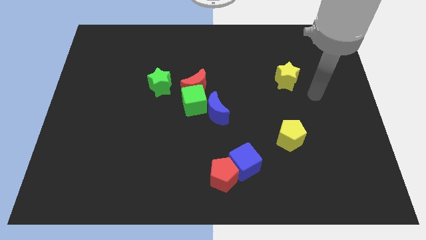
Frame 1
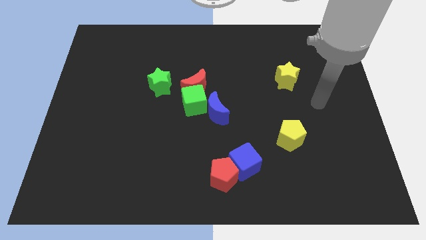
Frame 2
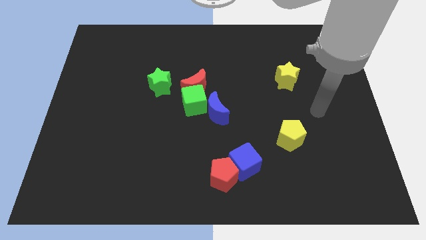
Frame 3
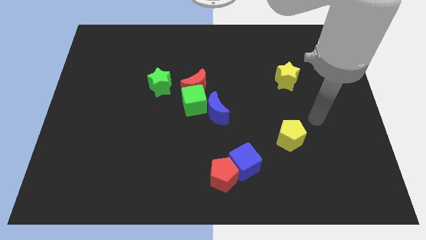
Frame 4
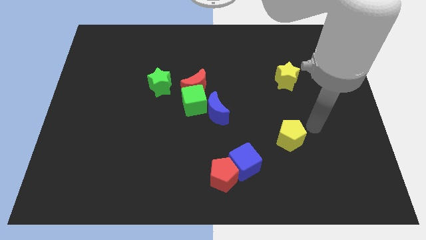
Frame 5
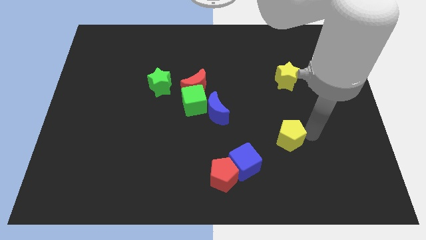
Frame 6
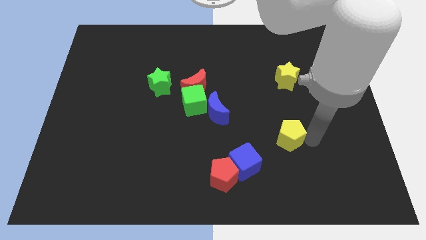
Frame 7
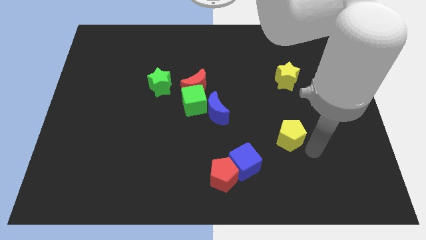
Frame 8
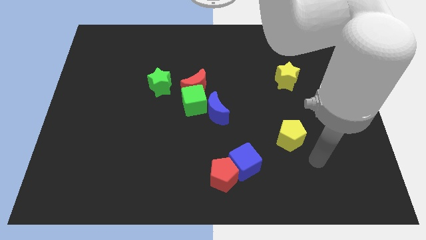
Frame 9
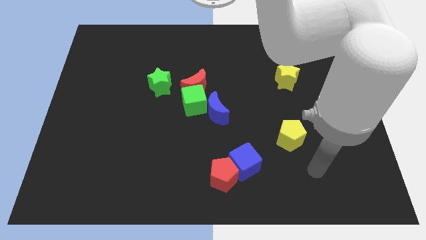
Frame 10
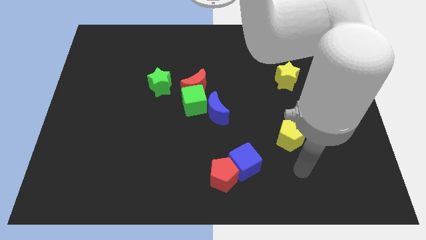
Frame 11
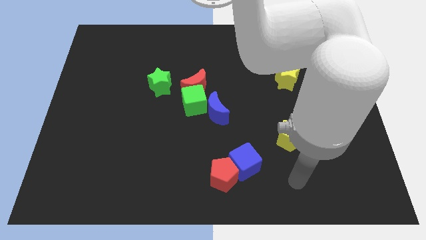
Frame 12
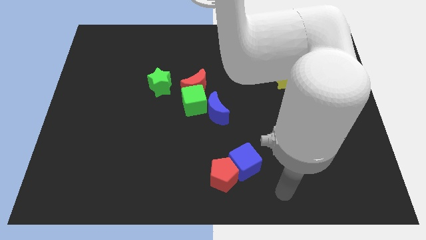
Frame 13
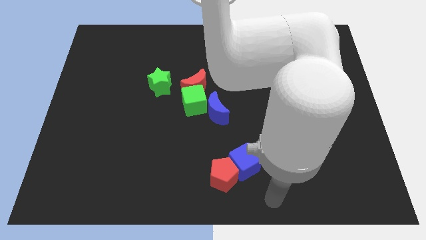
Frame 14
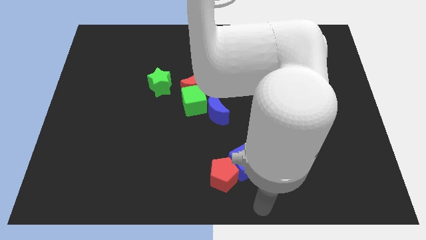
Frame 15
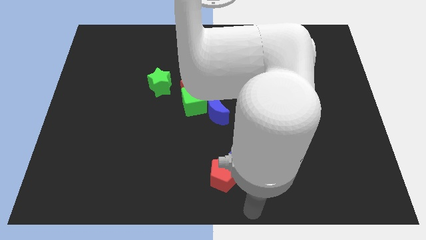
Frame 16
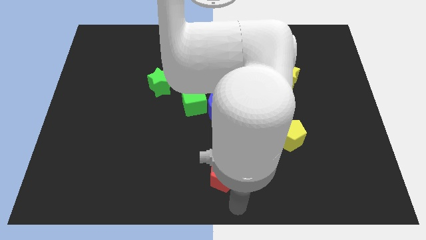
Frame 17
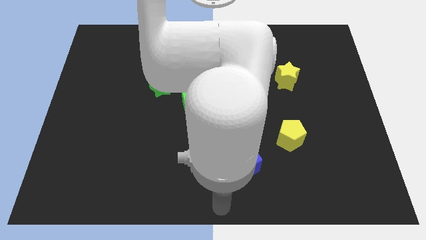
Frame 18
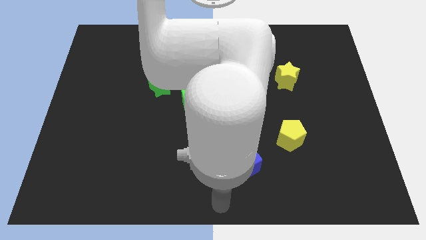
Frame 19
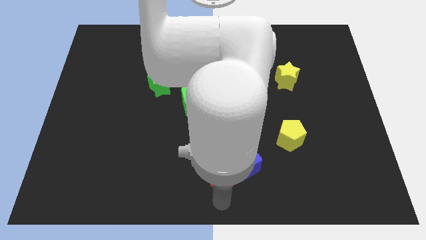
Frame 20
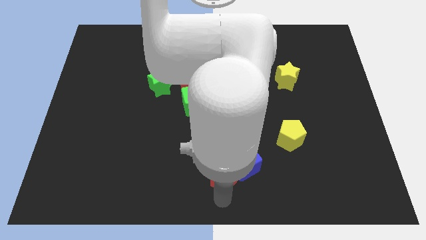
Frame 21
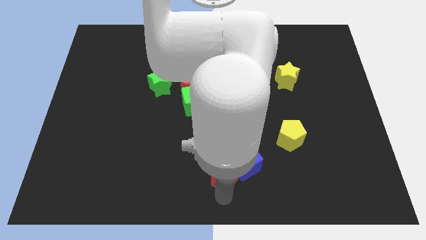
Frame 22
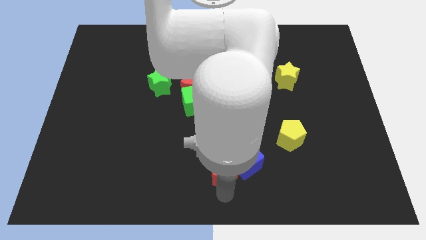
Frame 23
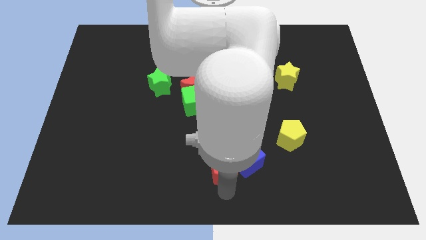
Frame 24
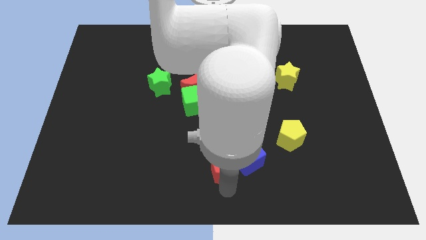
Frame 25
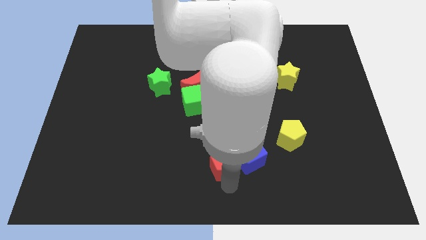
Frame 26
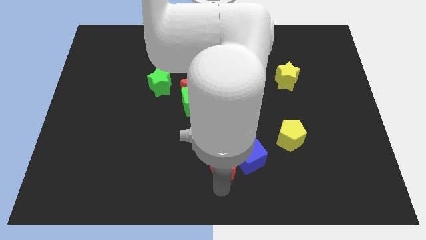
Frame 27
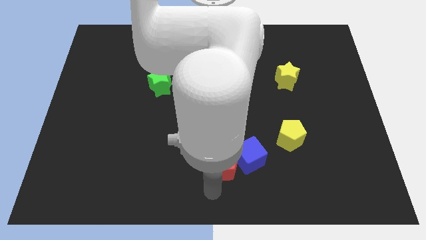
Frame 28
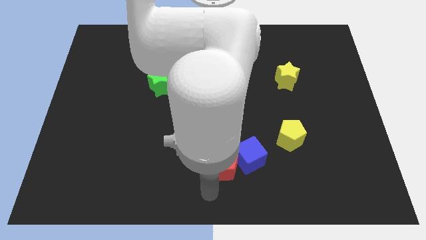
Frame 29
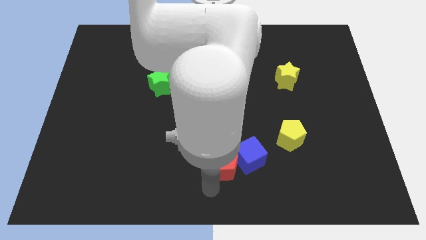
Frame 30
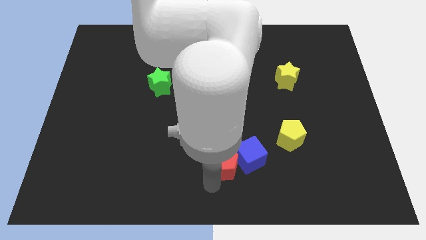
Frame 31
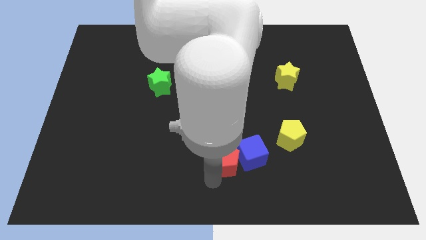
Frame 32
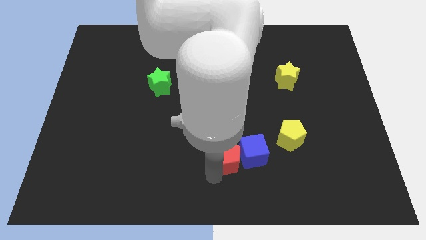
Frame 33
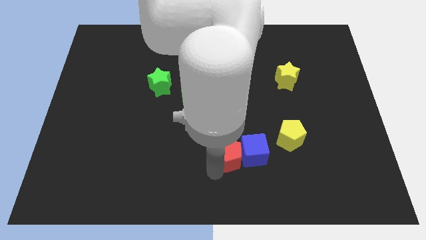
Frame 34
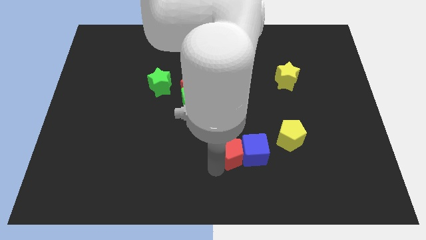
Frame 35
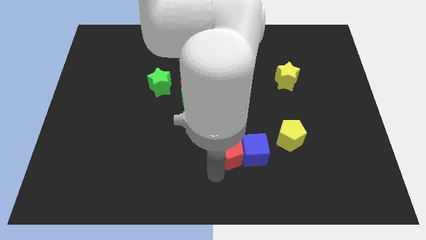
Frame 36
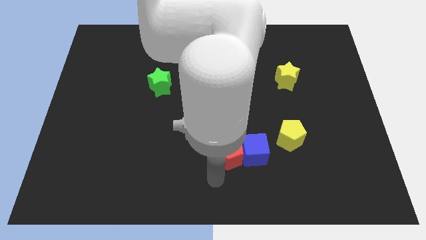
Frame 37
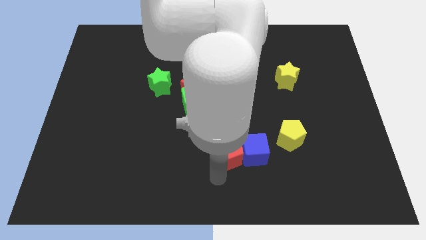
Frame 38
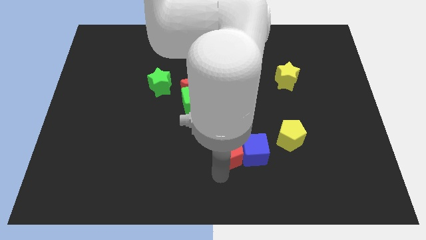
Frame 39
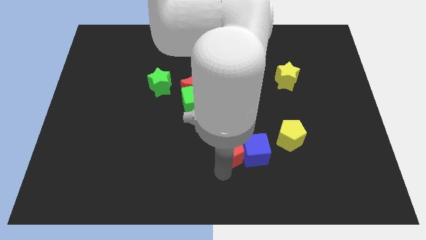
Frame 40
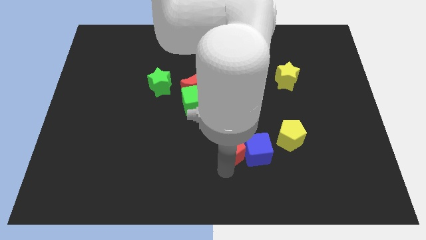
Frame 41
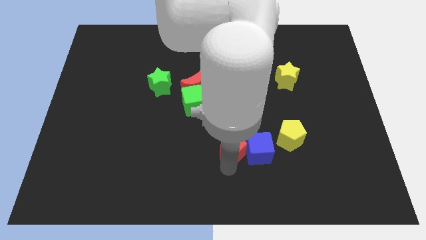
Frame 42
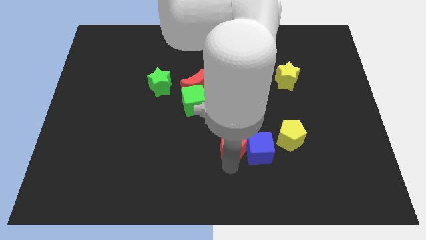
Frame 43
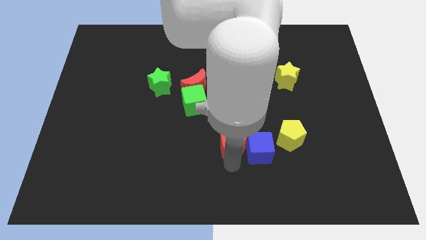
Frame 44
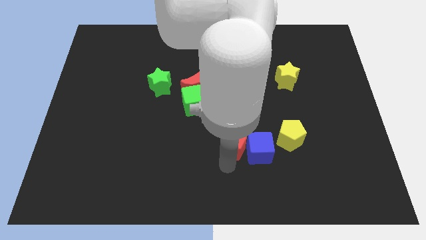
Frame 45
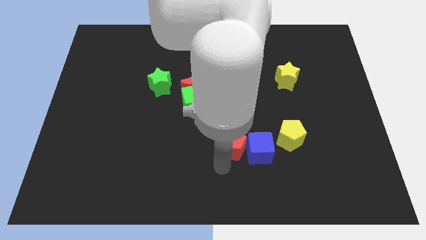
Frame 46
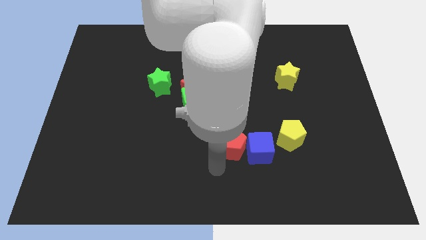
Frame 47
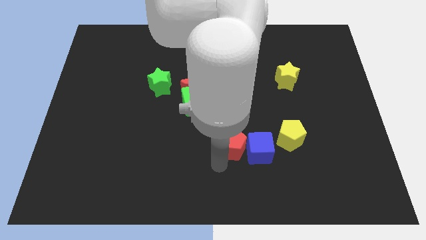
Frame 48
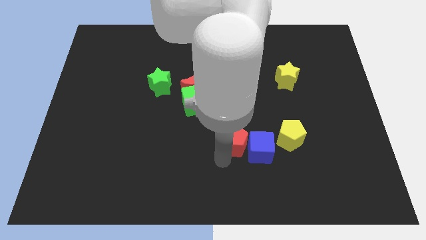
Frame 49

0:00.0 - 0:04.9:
slide the red pentagon a bit upwards and to the right diagonally

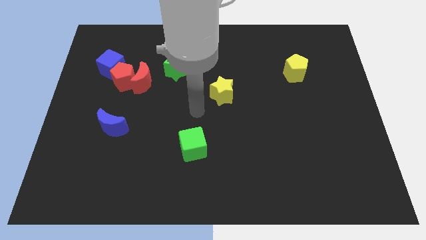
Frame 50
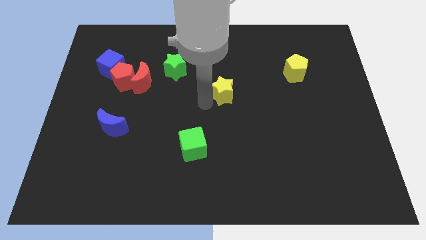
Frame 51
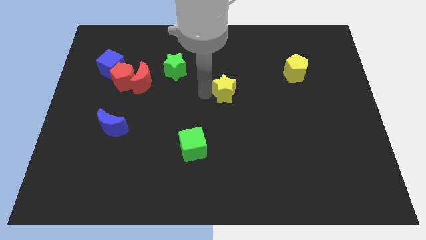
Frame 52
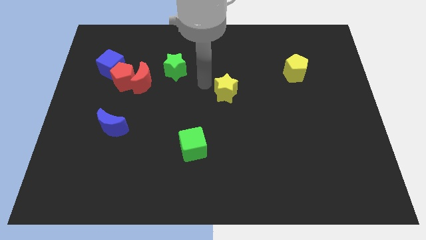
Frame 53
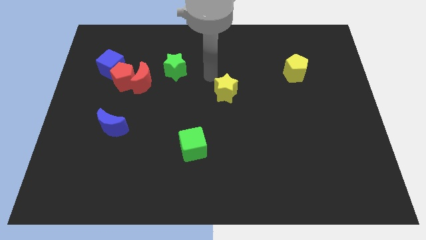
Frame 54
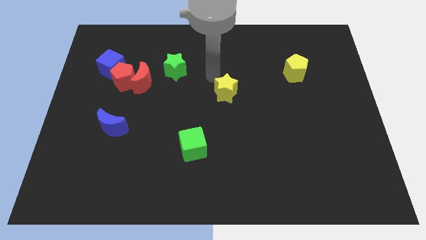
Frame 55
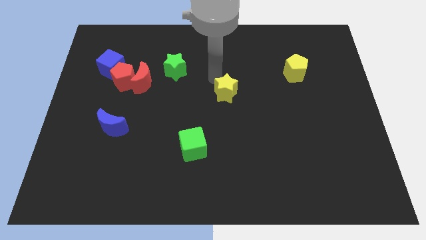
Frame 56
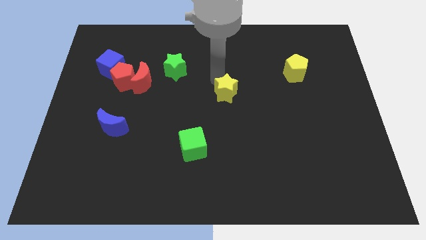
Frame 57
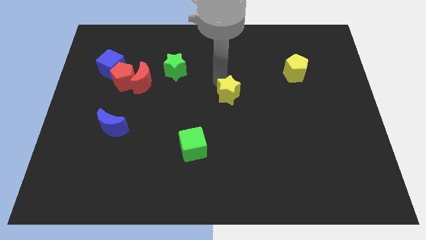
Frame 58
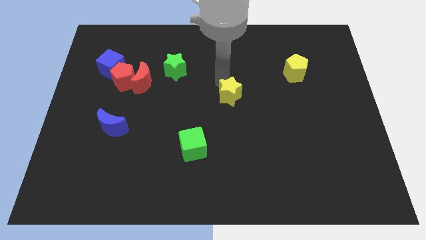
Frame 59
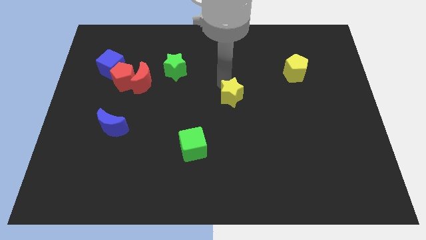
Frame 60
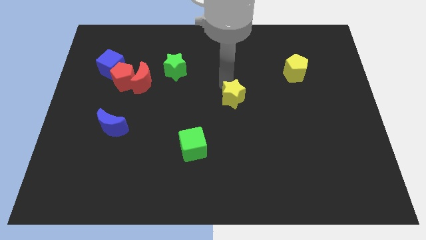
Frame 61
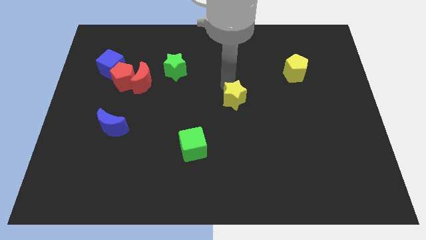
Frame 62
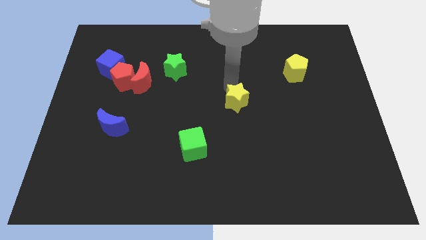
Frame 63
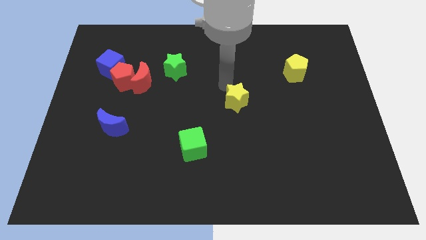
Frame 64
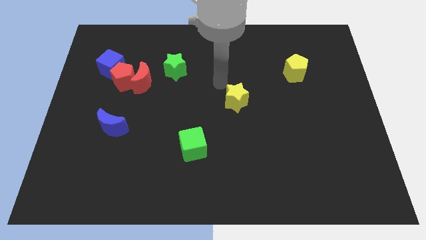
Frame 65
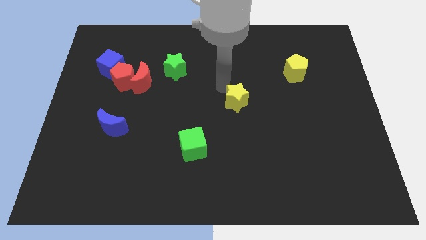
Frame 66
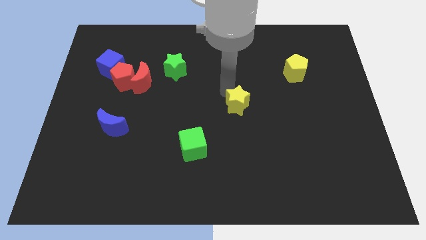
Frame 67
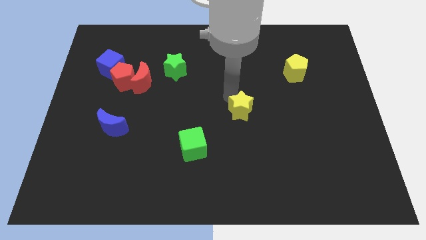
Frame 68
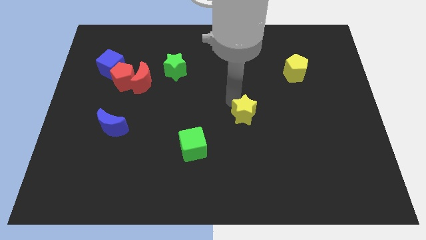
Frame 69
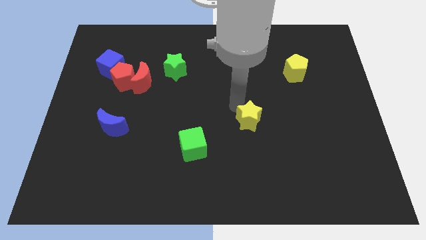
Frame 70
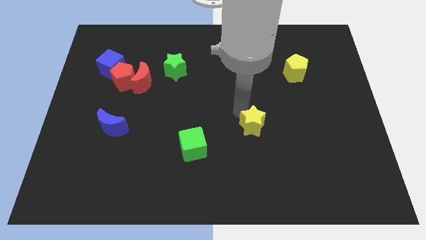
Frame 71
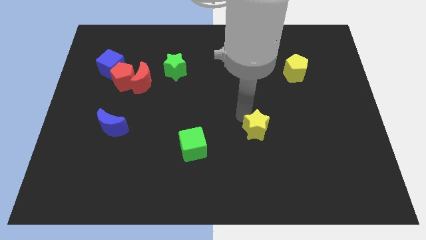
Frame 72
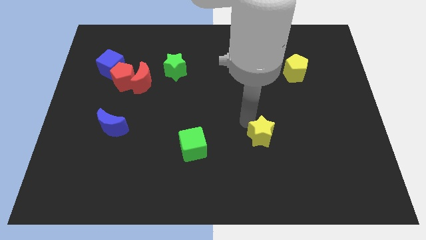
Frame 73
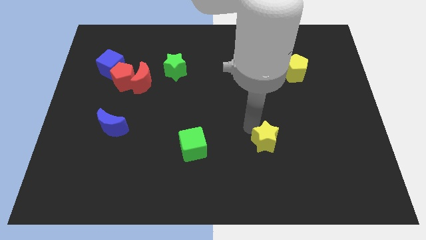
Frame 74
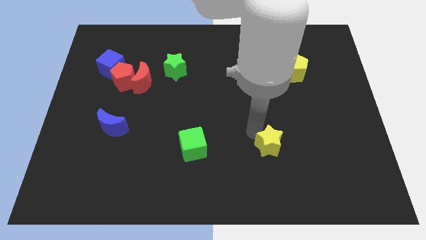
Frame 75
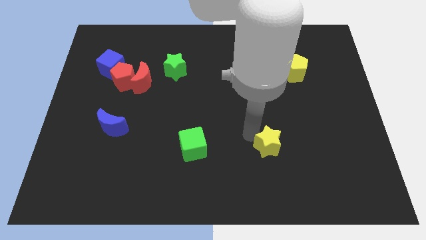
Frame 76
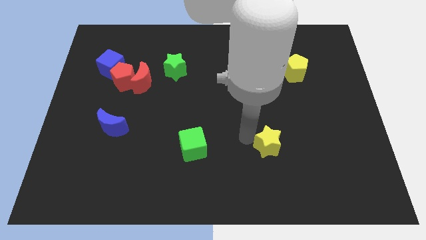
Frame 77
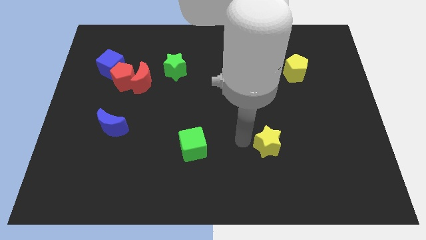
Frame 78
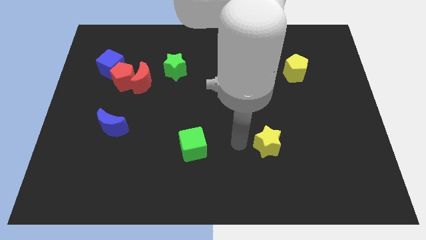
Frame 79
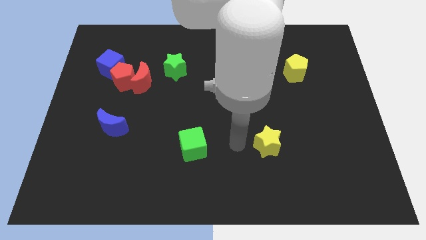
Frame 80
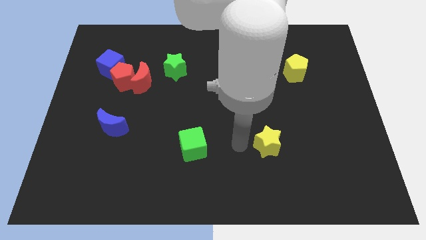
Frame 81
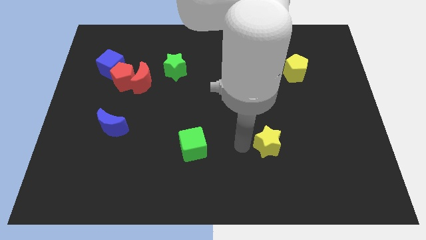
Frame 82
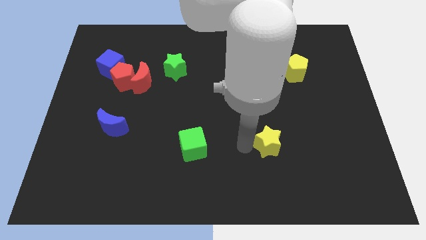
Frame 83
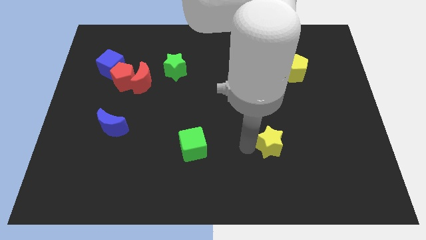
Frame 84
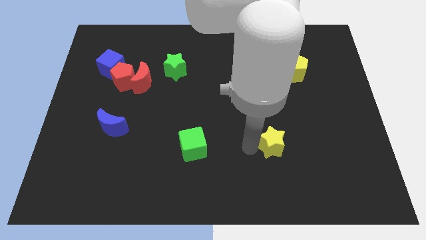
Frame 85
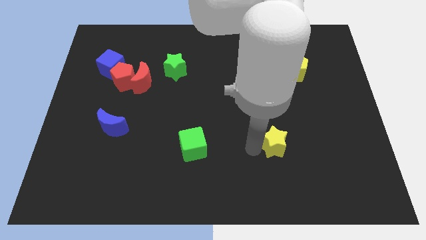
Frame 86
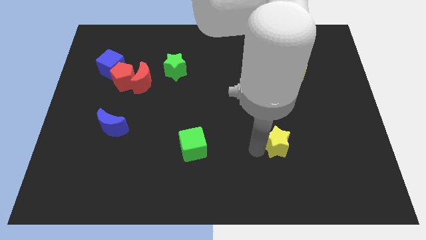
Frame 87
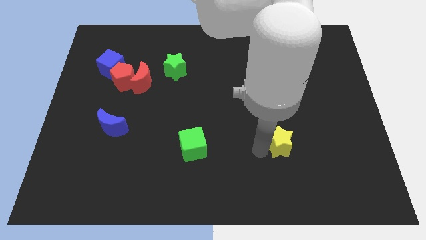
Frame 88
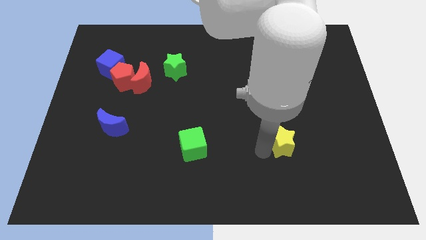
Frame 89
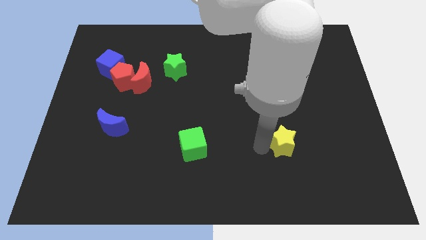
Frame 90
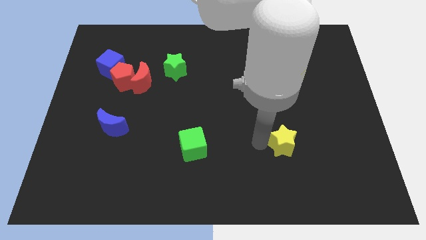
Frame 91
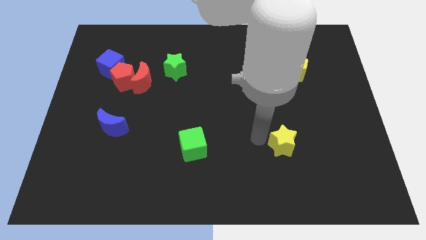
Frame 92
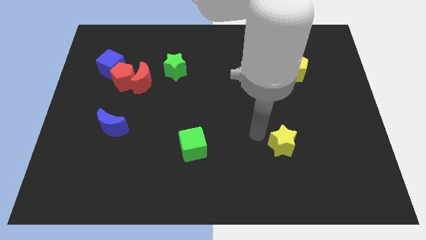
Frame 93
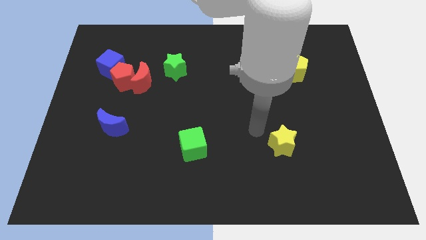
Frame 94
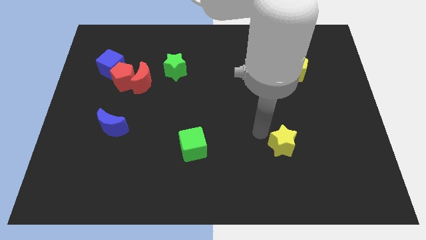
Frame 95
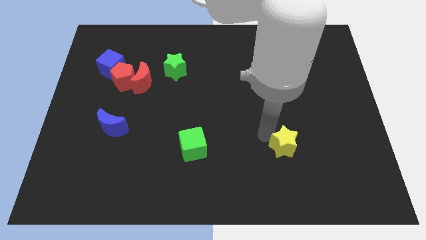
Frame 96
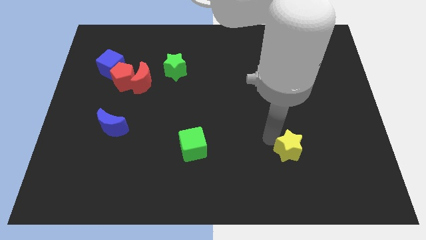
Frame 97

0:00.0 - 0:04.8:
push the yellow star downwards and then to the right
